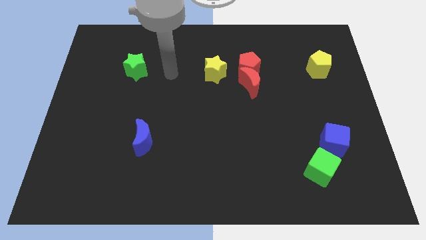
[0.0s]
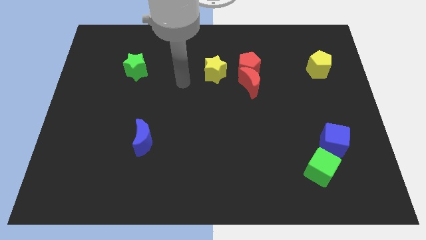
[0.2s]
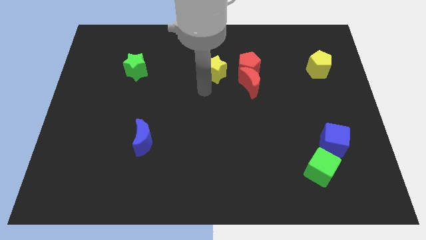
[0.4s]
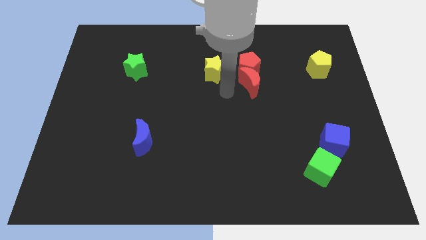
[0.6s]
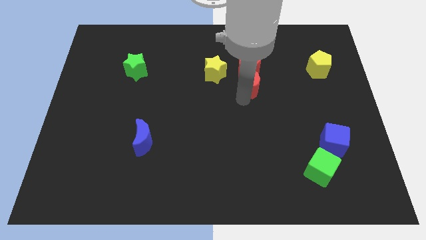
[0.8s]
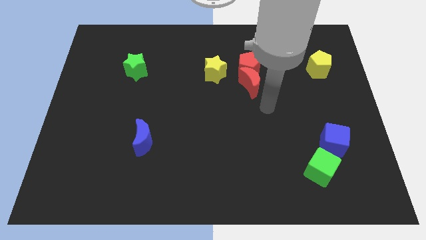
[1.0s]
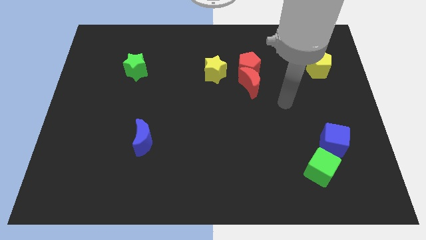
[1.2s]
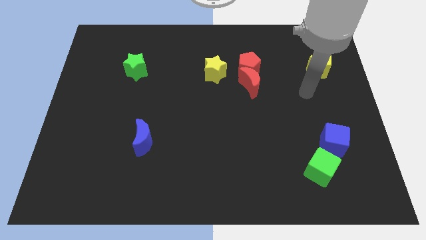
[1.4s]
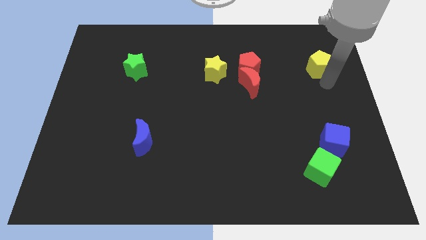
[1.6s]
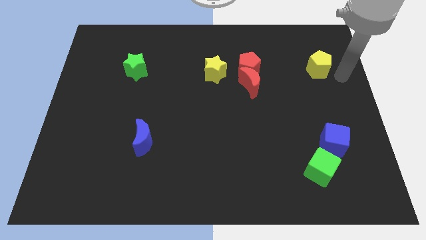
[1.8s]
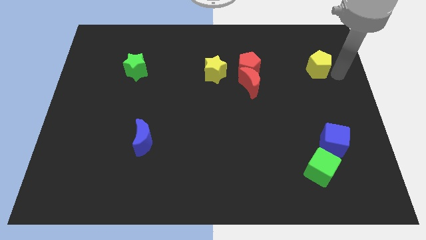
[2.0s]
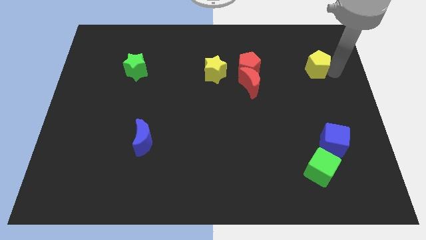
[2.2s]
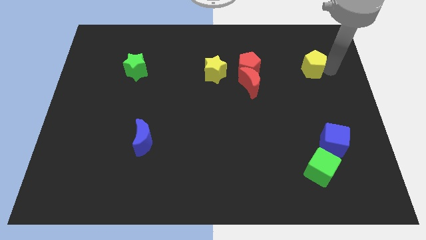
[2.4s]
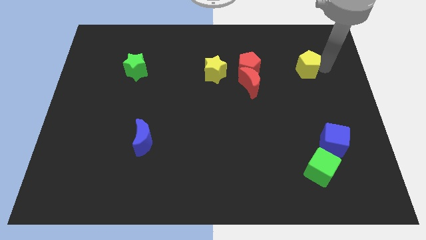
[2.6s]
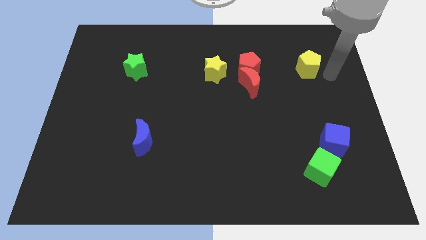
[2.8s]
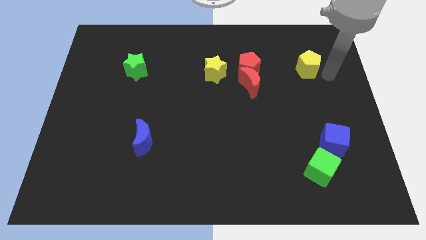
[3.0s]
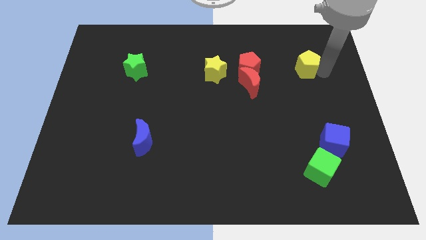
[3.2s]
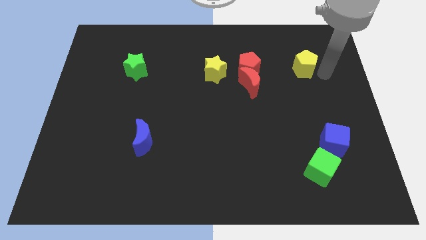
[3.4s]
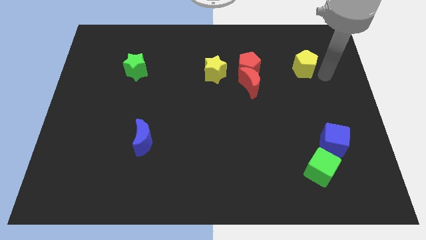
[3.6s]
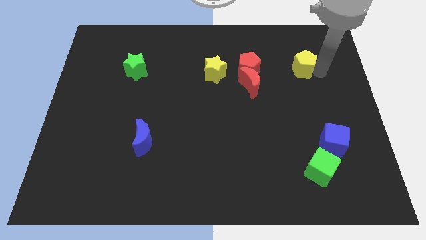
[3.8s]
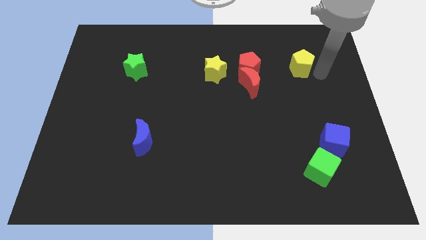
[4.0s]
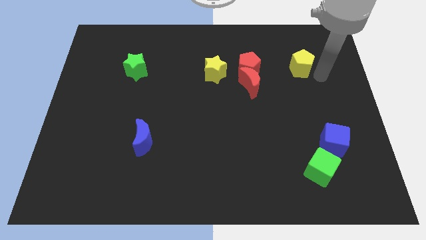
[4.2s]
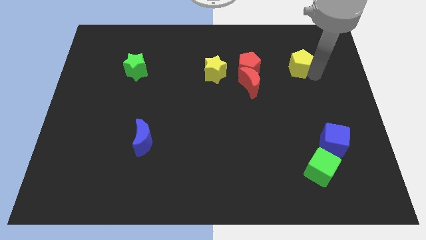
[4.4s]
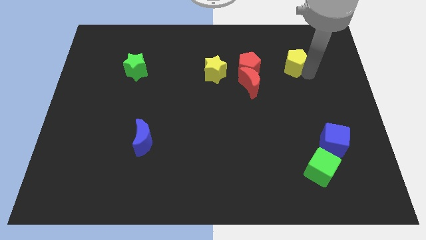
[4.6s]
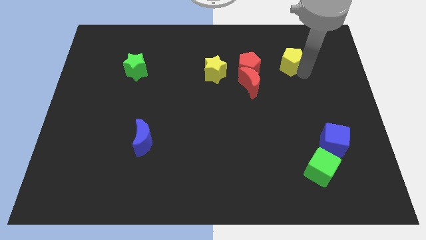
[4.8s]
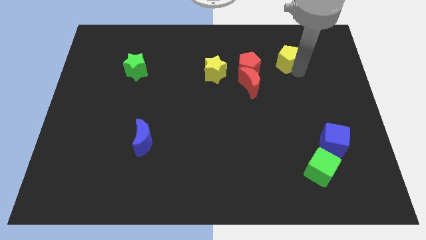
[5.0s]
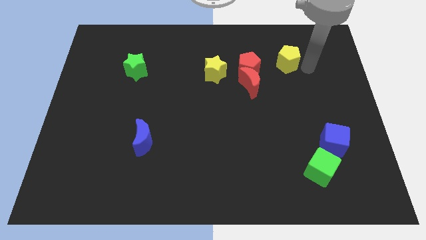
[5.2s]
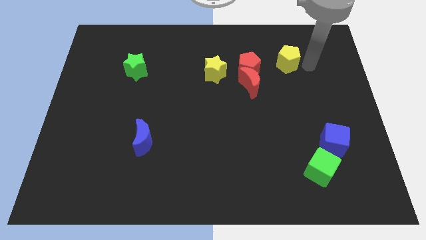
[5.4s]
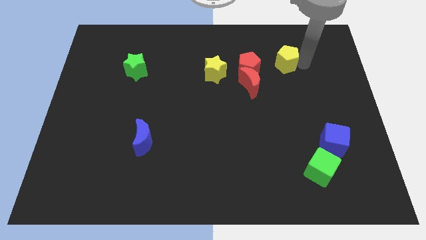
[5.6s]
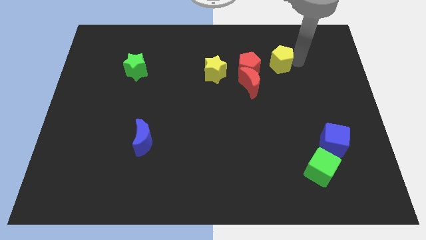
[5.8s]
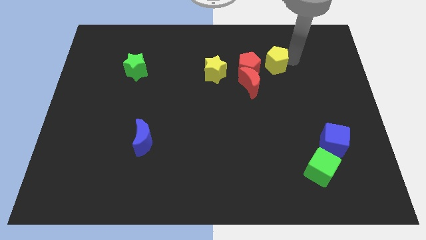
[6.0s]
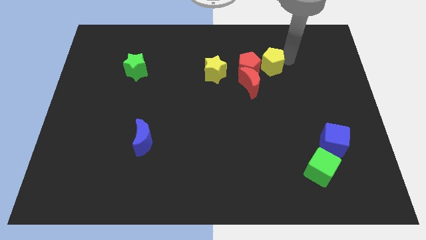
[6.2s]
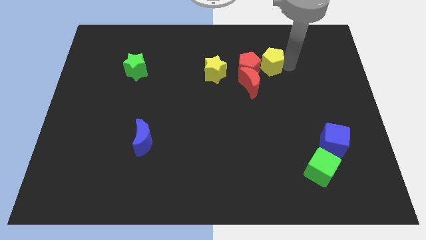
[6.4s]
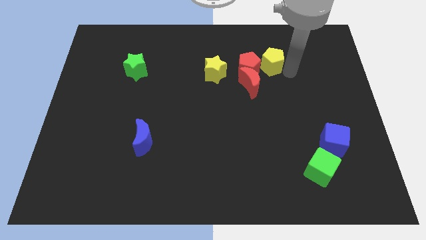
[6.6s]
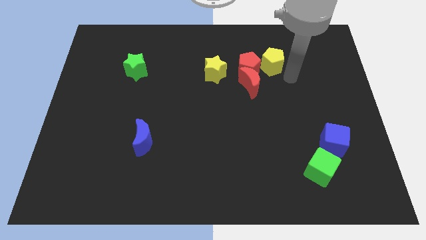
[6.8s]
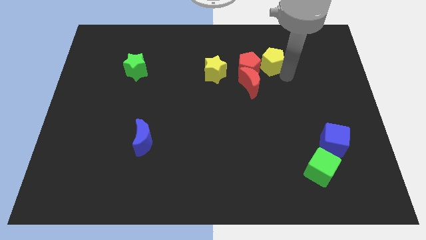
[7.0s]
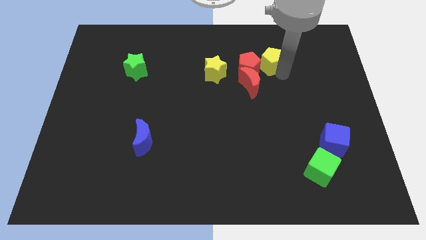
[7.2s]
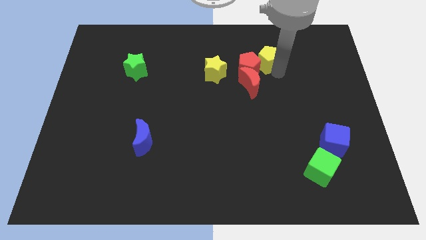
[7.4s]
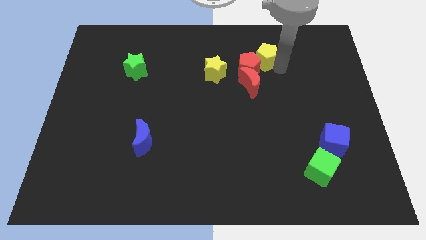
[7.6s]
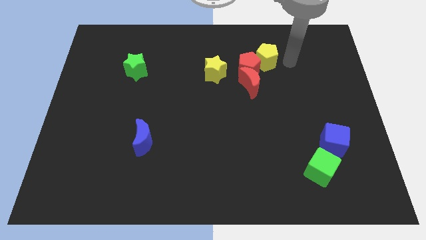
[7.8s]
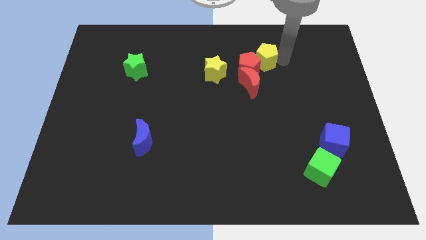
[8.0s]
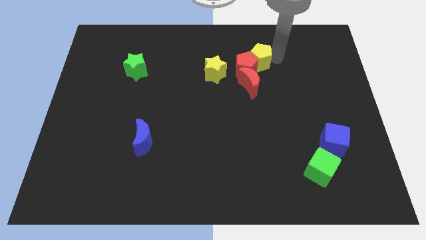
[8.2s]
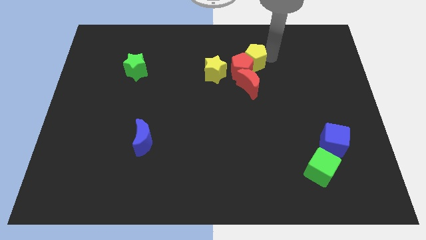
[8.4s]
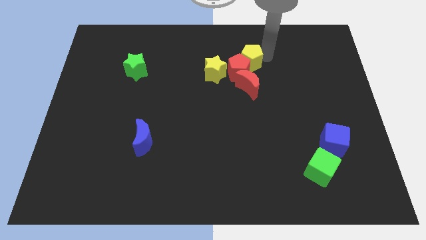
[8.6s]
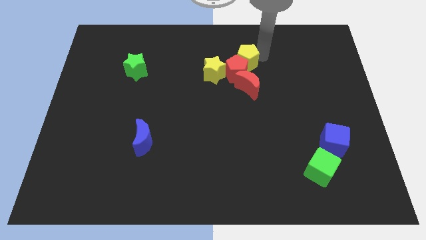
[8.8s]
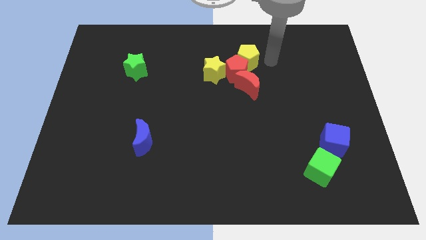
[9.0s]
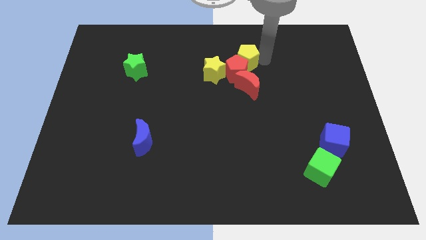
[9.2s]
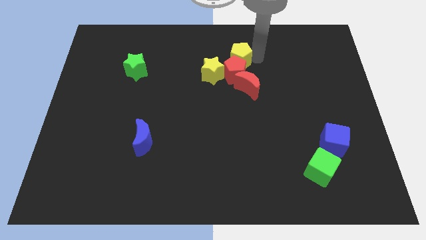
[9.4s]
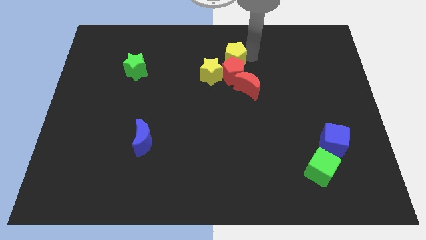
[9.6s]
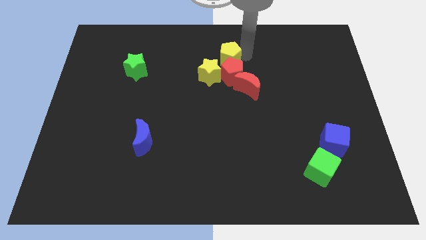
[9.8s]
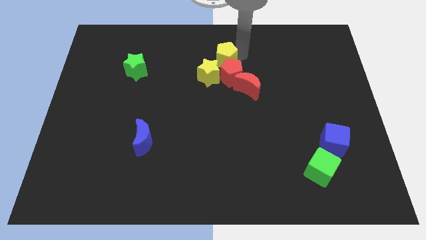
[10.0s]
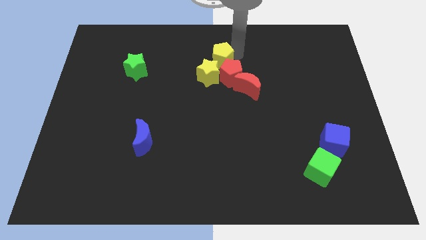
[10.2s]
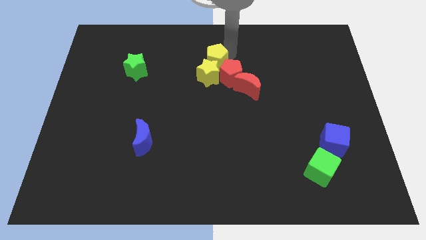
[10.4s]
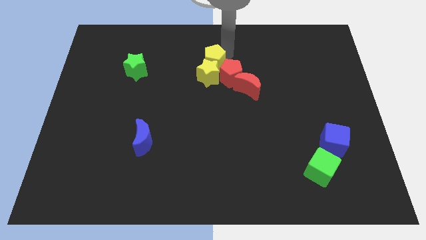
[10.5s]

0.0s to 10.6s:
put the yellow pentagon just left of the red pentagon

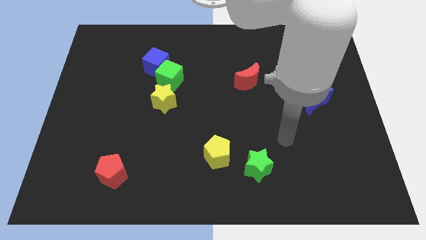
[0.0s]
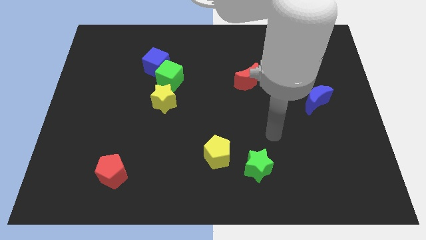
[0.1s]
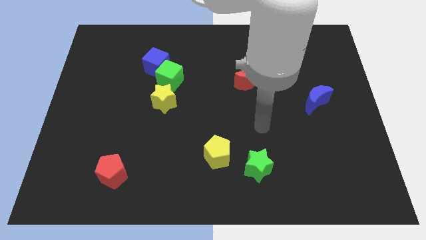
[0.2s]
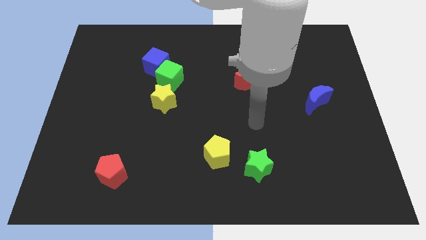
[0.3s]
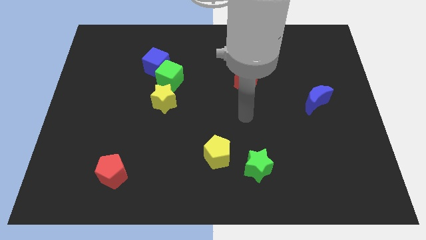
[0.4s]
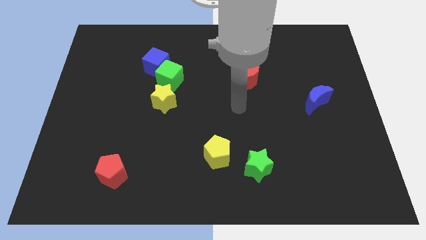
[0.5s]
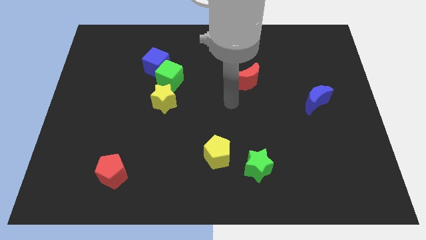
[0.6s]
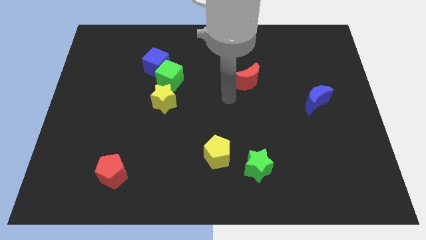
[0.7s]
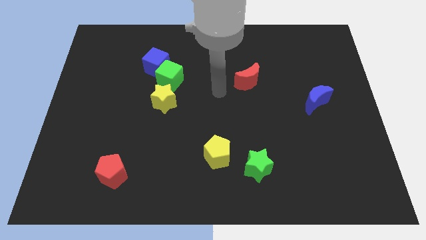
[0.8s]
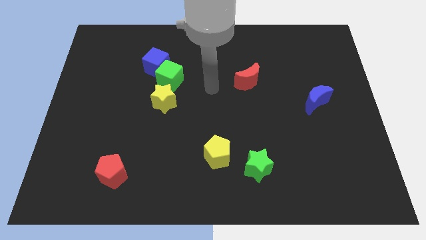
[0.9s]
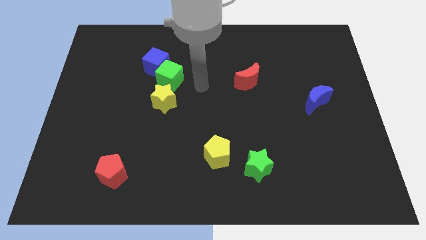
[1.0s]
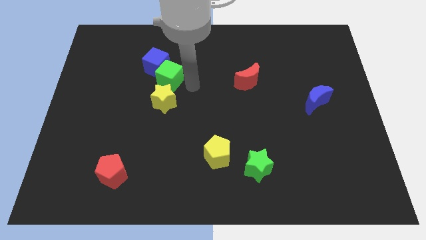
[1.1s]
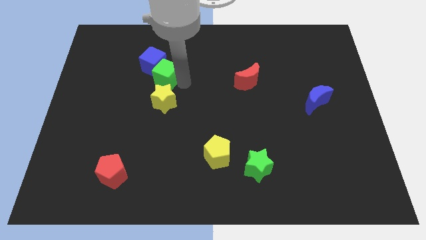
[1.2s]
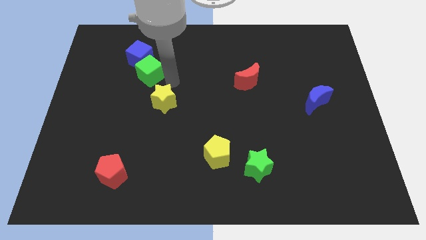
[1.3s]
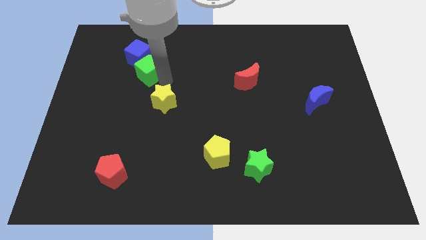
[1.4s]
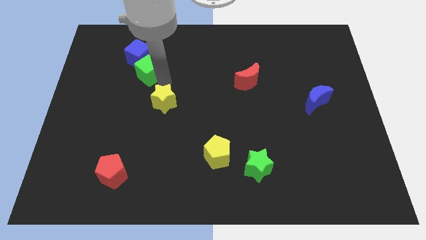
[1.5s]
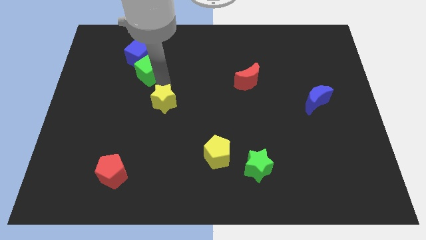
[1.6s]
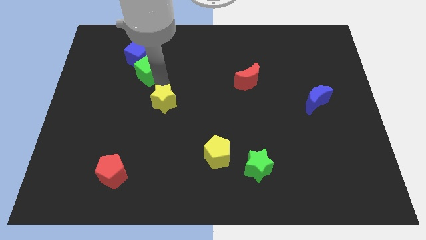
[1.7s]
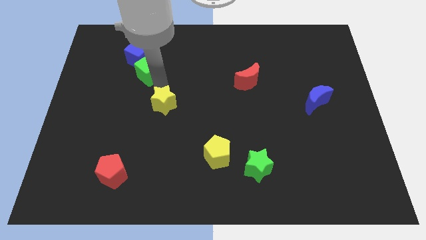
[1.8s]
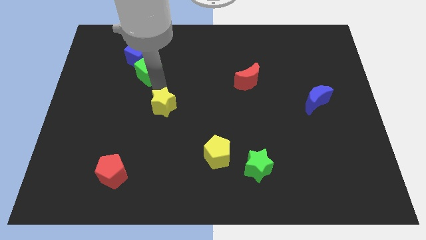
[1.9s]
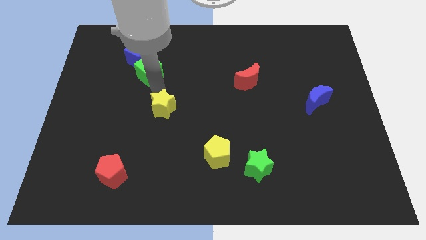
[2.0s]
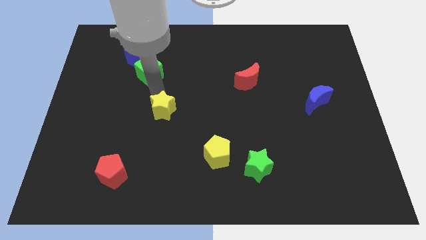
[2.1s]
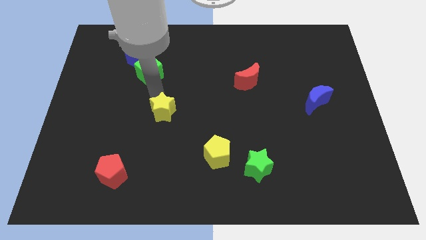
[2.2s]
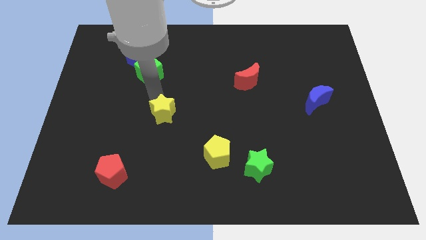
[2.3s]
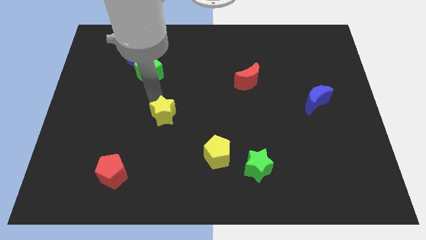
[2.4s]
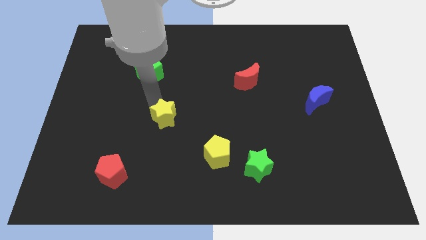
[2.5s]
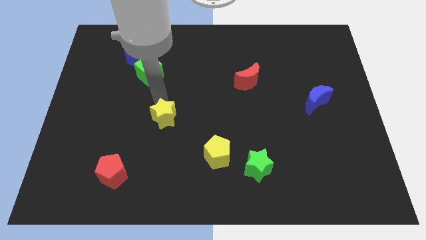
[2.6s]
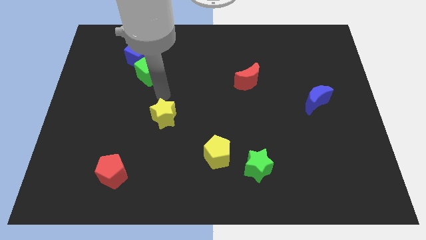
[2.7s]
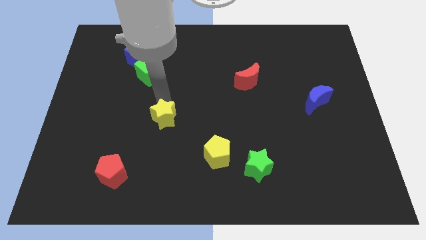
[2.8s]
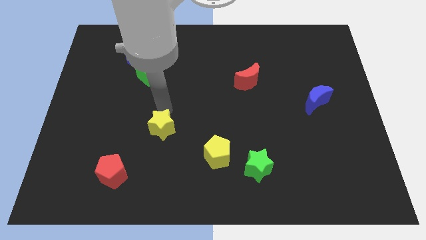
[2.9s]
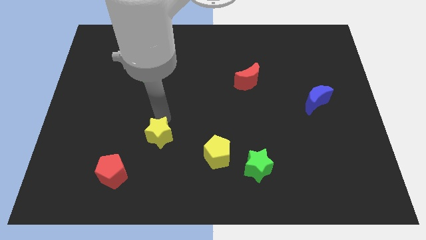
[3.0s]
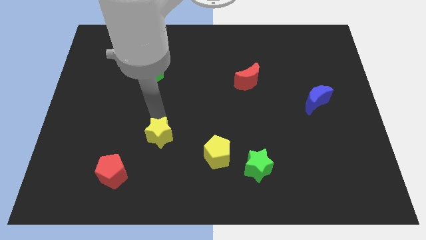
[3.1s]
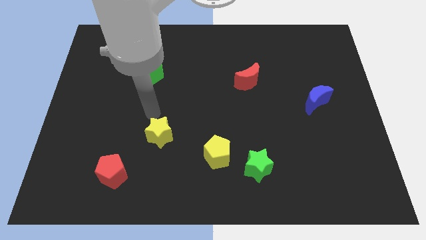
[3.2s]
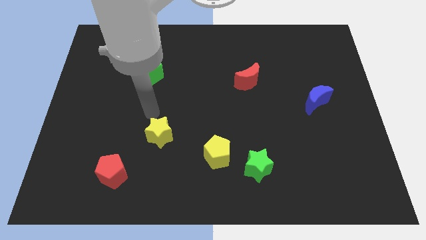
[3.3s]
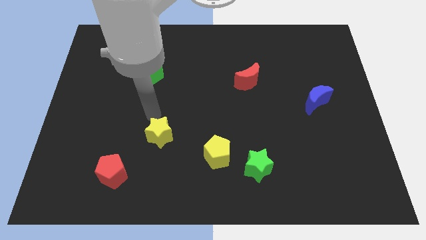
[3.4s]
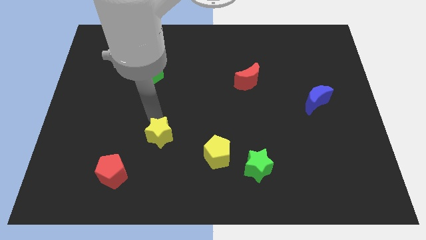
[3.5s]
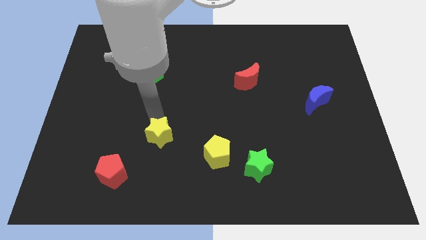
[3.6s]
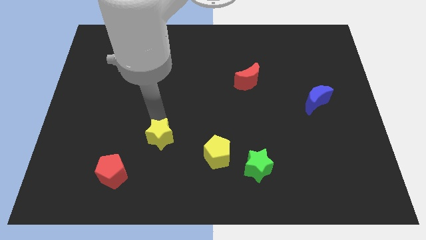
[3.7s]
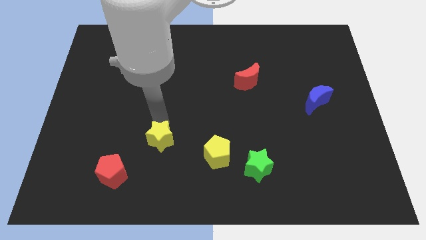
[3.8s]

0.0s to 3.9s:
move the yellow star to the left of the yellow pentagon
